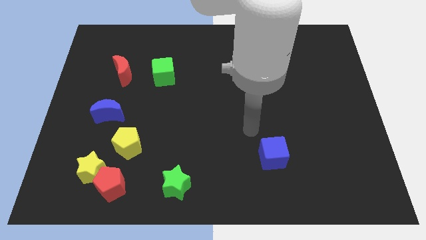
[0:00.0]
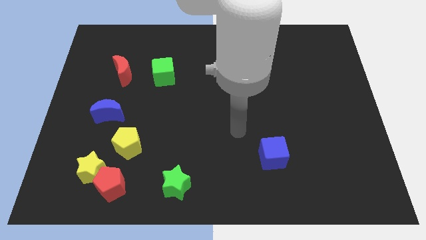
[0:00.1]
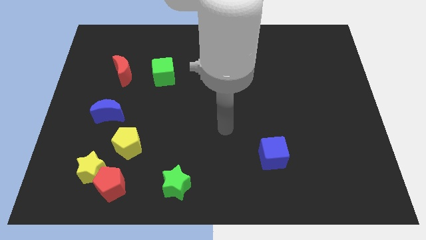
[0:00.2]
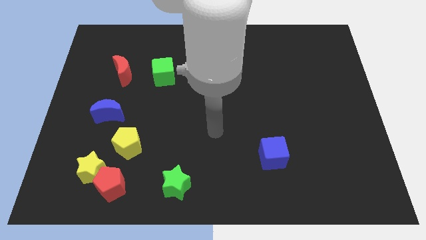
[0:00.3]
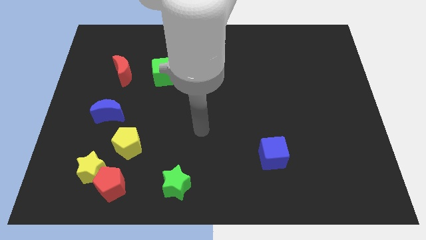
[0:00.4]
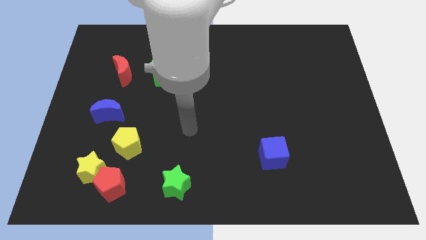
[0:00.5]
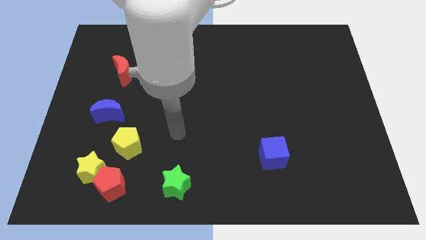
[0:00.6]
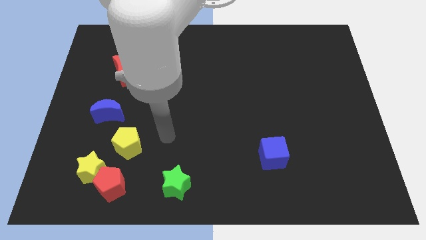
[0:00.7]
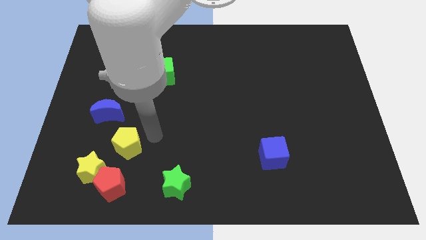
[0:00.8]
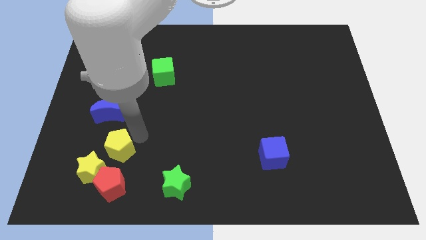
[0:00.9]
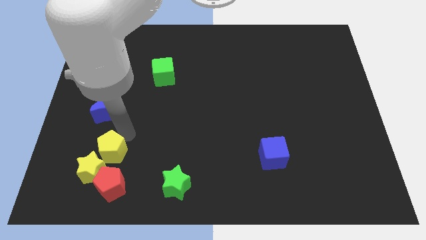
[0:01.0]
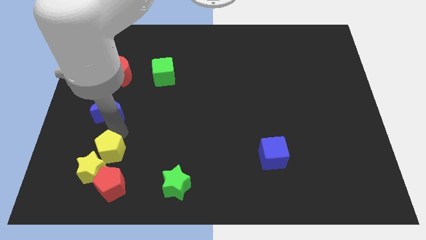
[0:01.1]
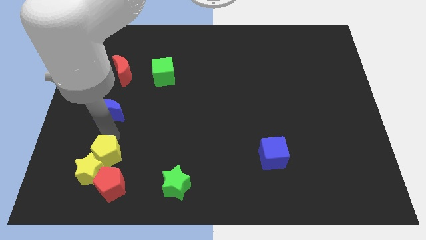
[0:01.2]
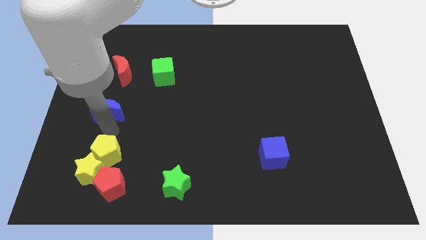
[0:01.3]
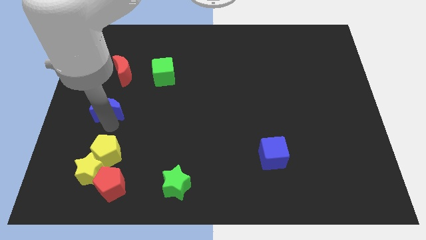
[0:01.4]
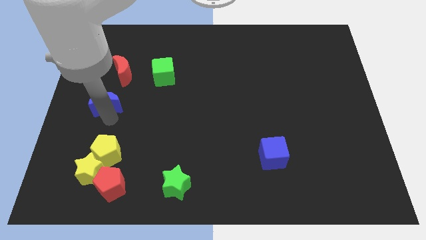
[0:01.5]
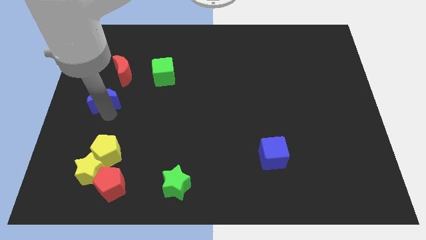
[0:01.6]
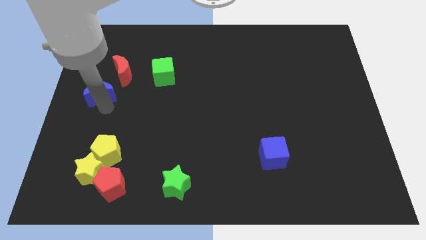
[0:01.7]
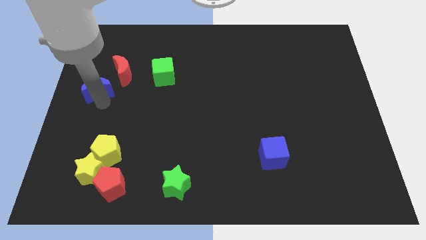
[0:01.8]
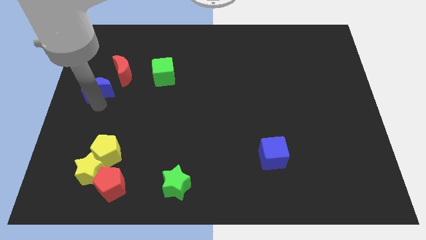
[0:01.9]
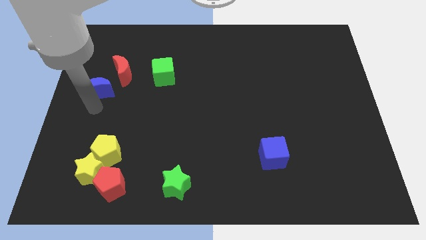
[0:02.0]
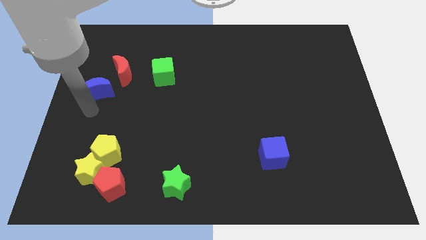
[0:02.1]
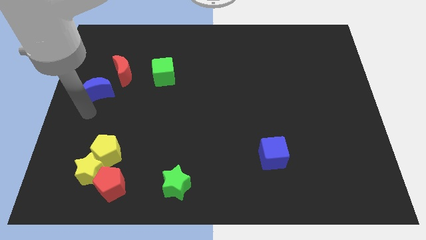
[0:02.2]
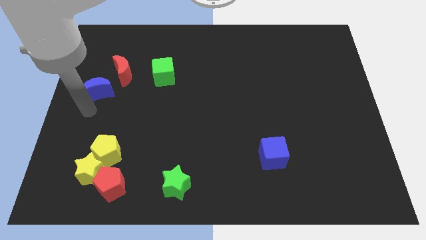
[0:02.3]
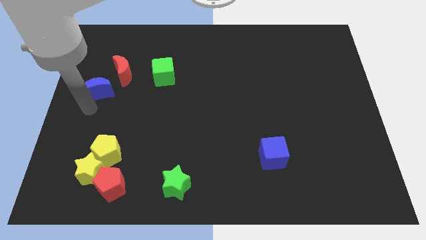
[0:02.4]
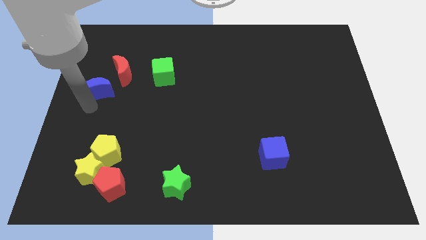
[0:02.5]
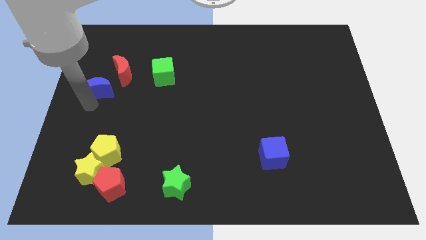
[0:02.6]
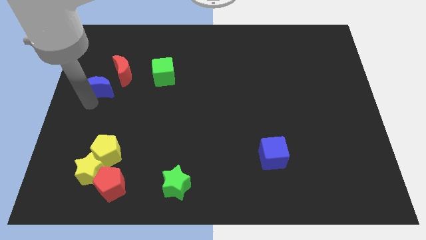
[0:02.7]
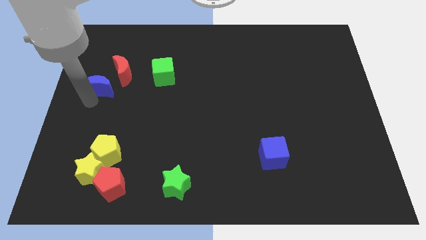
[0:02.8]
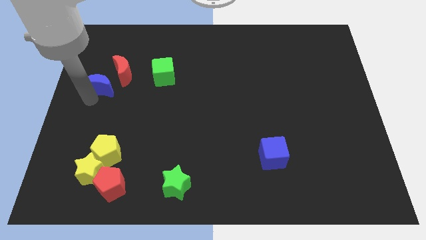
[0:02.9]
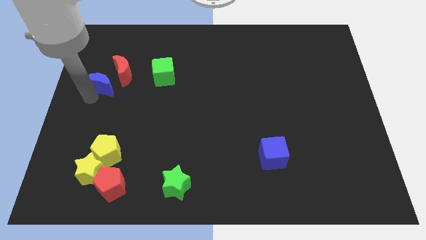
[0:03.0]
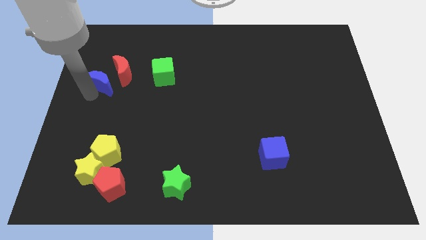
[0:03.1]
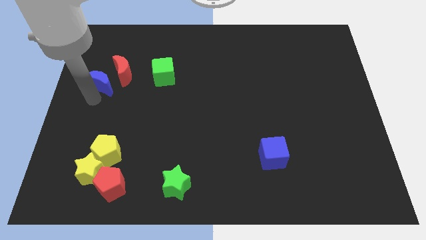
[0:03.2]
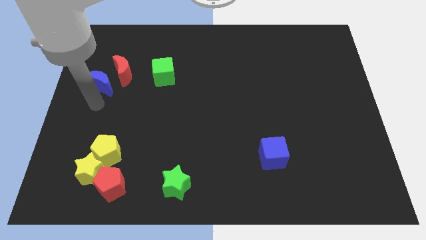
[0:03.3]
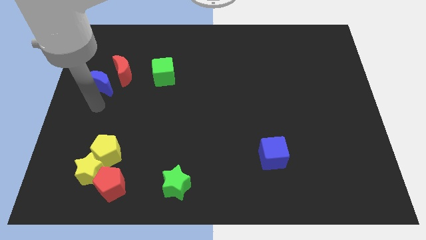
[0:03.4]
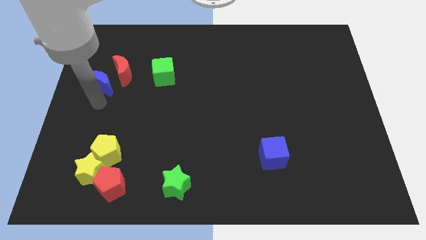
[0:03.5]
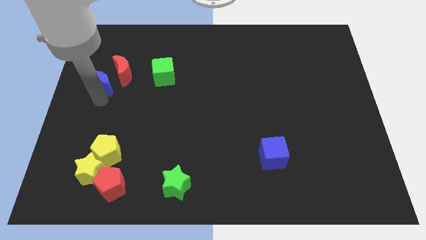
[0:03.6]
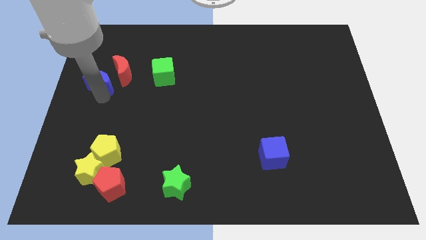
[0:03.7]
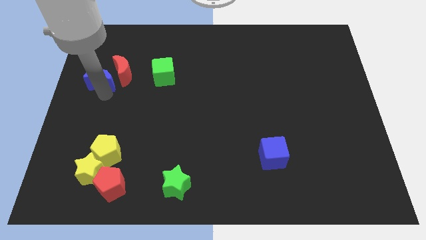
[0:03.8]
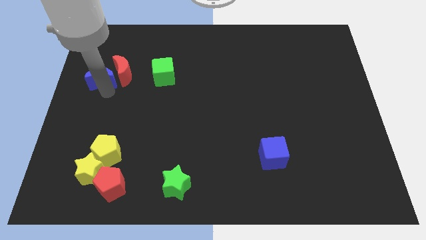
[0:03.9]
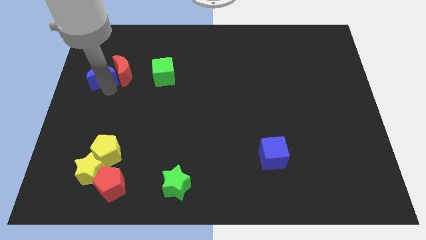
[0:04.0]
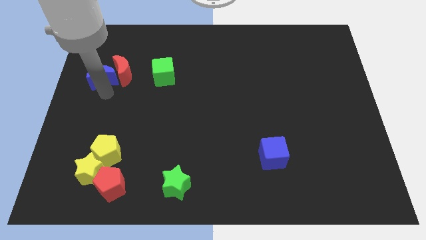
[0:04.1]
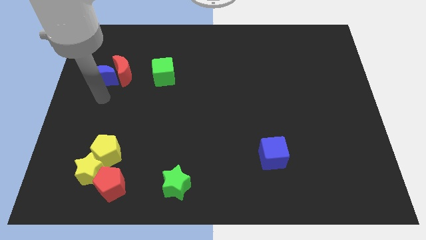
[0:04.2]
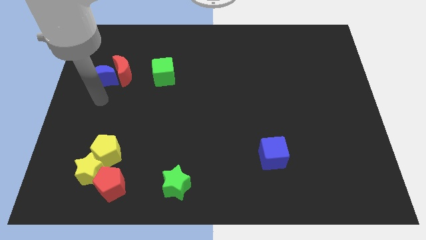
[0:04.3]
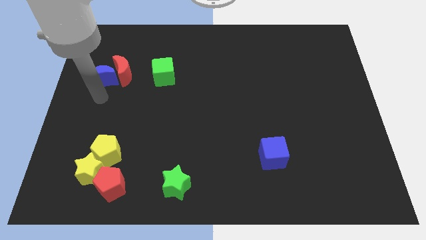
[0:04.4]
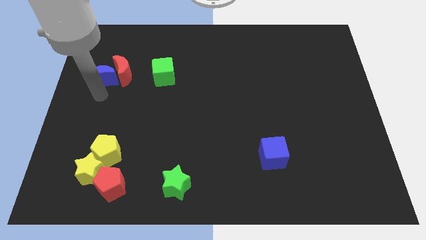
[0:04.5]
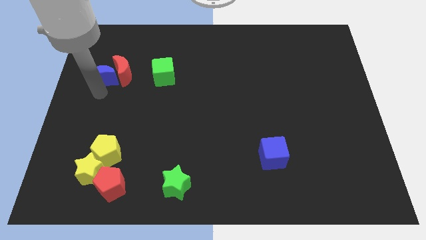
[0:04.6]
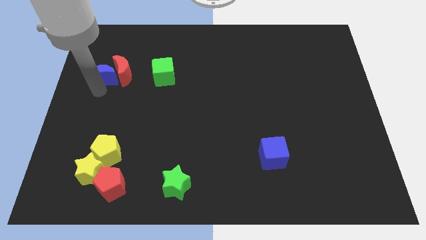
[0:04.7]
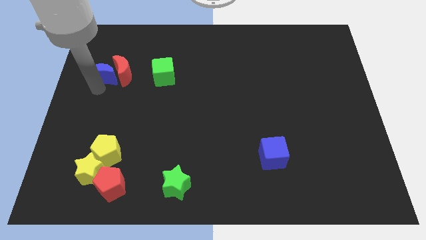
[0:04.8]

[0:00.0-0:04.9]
move the blue moon to the top left side of the red moon

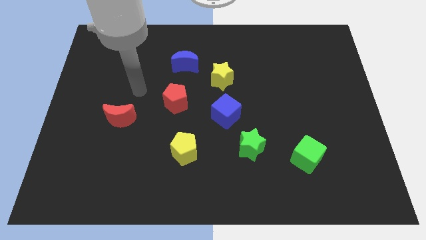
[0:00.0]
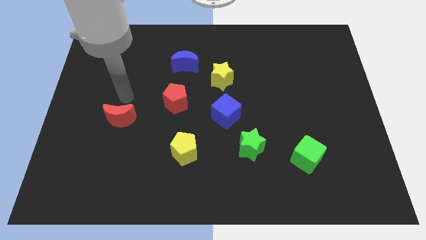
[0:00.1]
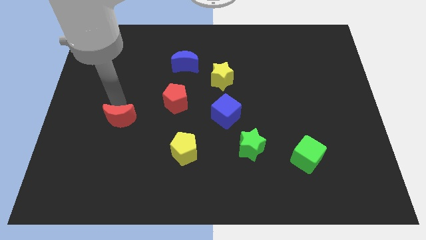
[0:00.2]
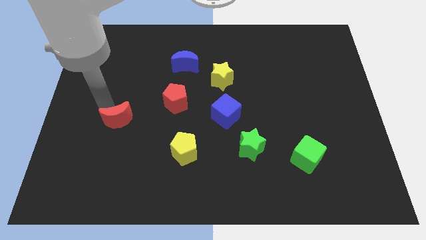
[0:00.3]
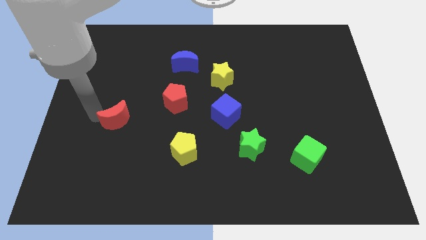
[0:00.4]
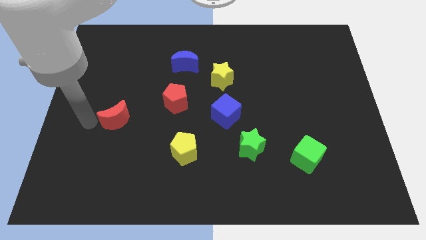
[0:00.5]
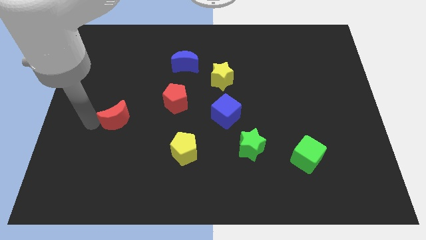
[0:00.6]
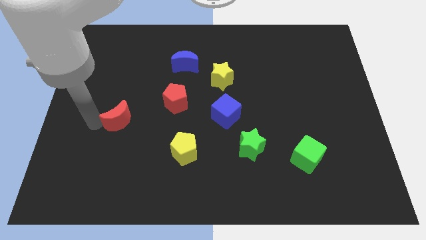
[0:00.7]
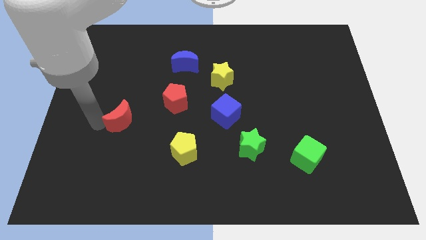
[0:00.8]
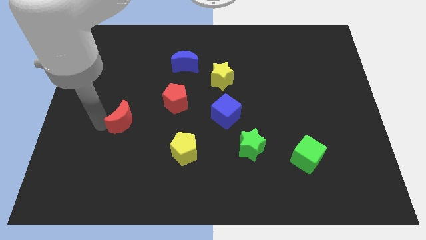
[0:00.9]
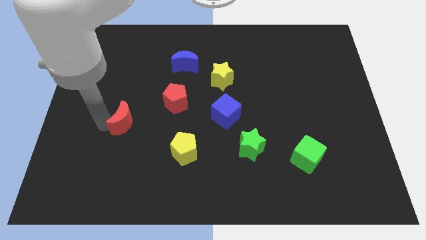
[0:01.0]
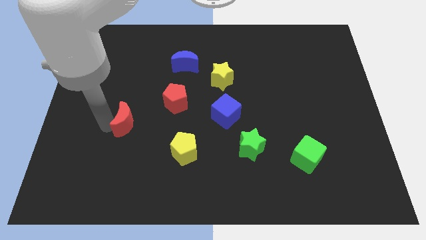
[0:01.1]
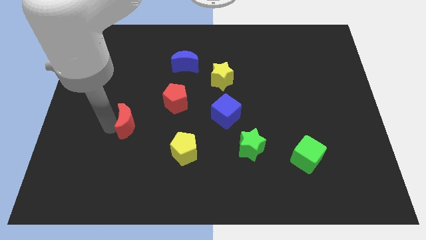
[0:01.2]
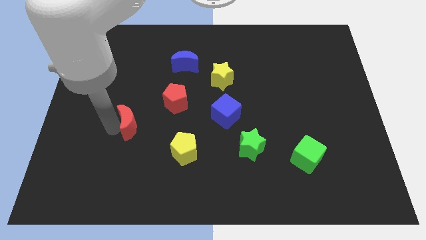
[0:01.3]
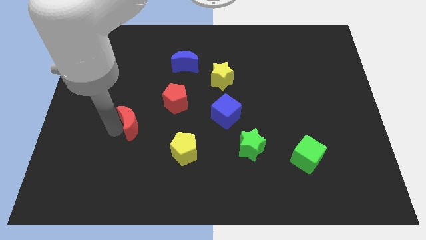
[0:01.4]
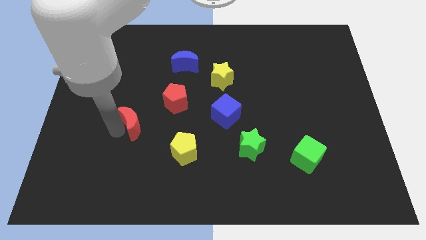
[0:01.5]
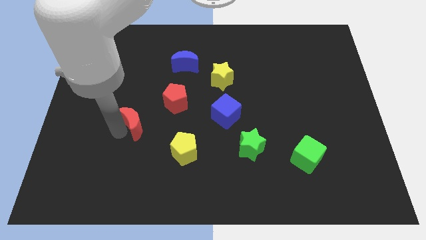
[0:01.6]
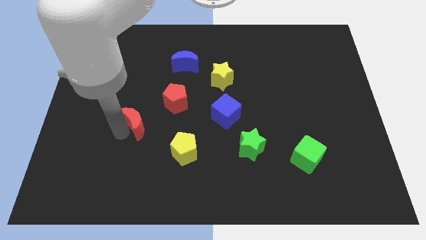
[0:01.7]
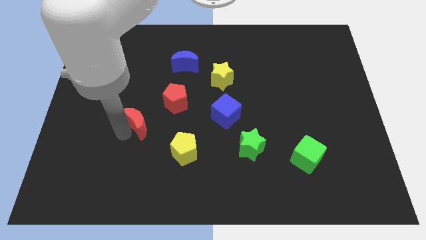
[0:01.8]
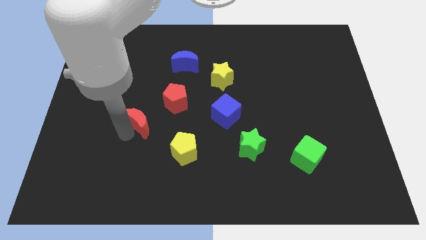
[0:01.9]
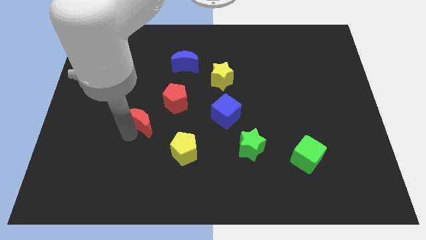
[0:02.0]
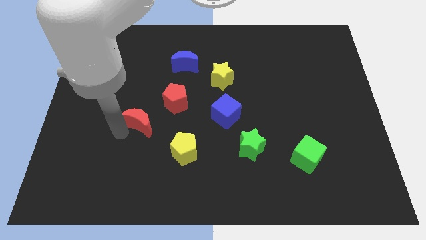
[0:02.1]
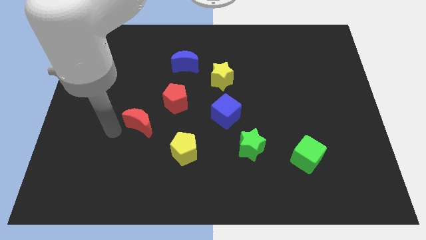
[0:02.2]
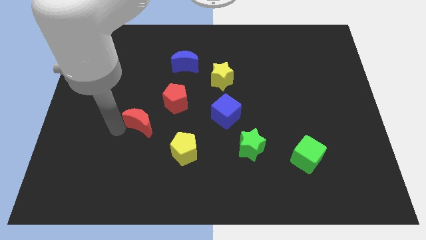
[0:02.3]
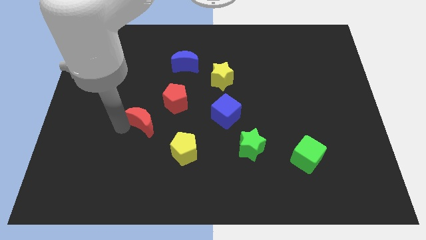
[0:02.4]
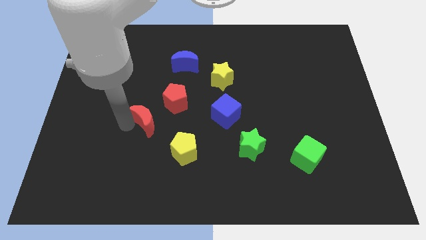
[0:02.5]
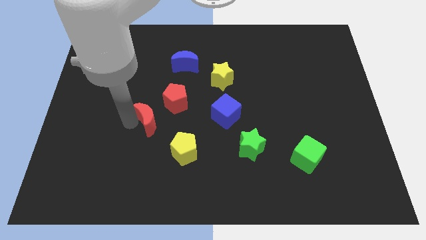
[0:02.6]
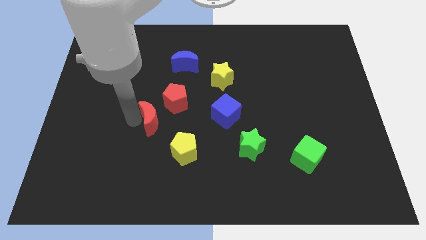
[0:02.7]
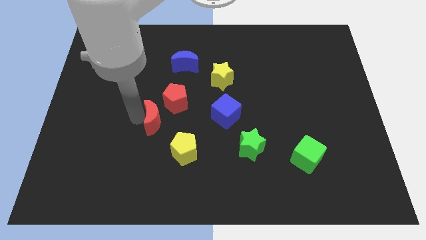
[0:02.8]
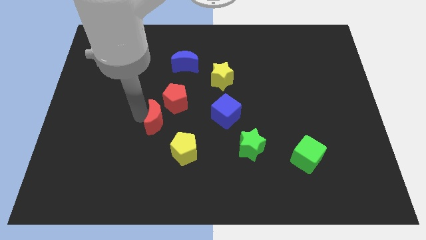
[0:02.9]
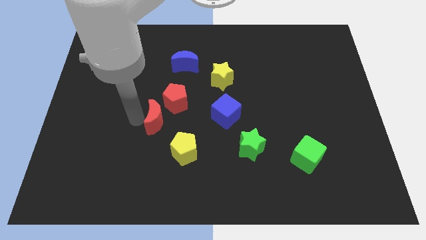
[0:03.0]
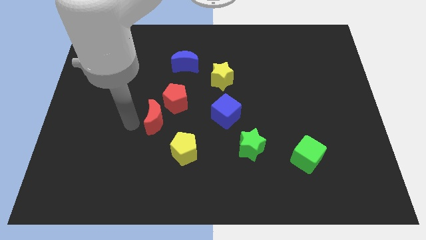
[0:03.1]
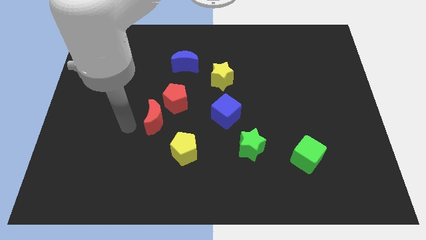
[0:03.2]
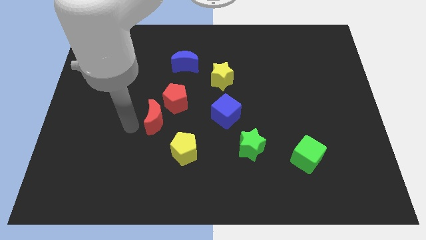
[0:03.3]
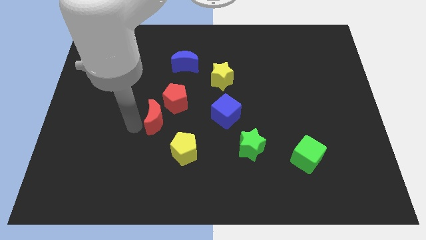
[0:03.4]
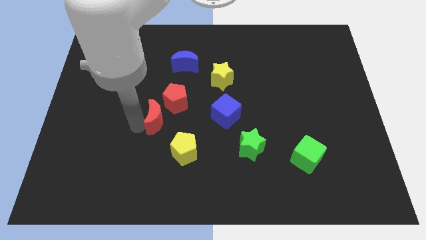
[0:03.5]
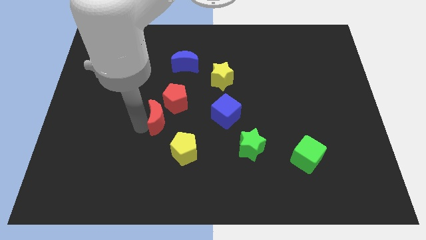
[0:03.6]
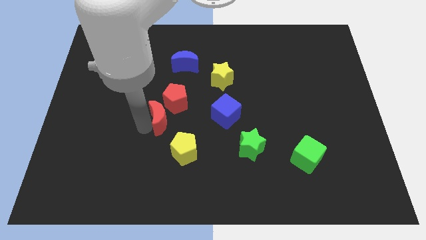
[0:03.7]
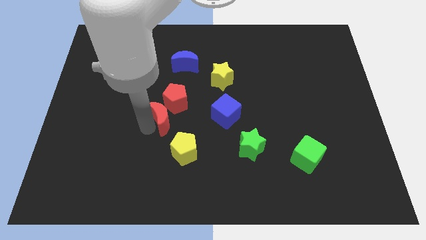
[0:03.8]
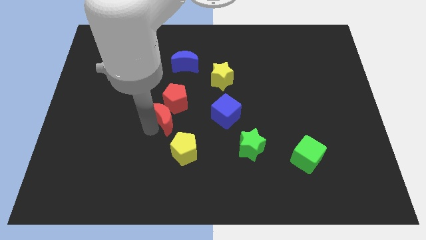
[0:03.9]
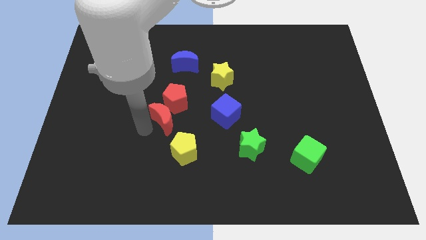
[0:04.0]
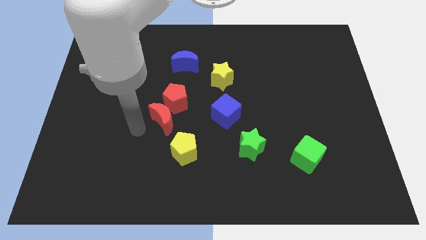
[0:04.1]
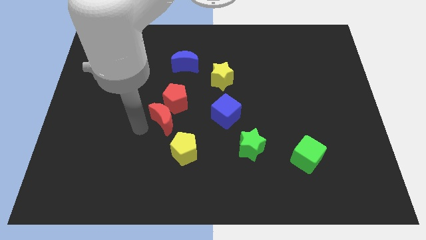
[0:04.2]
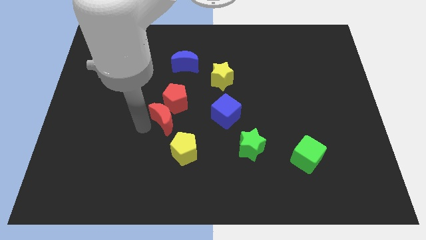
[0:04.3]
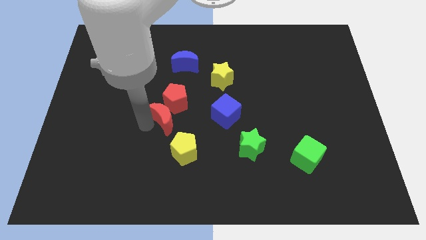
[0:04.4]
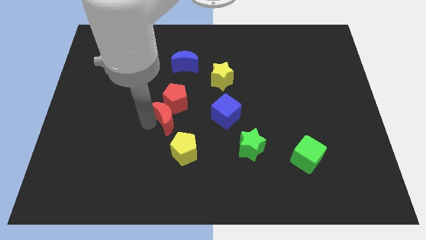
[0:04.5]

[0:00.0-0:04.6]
push the red moon to the top of the yellow pentagon
